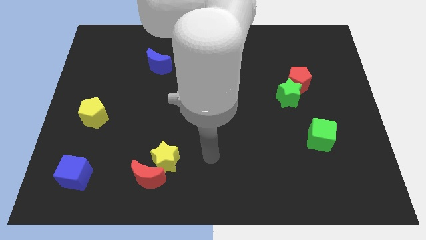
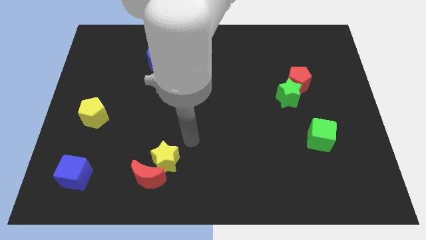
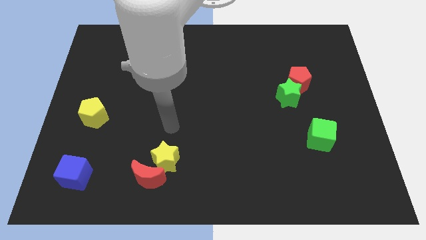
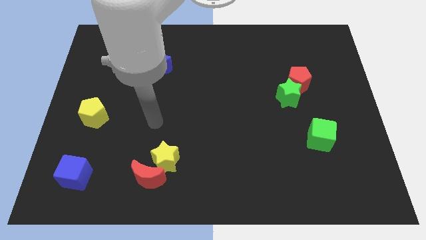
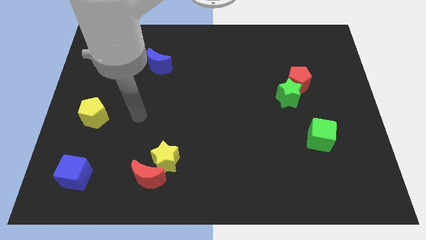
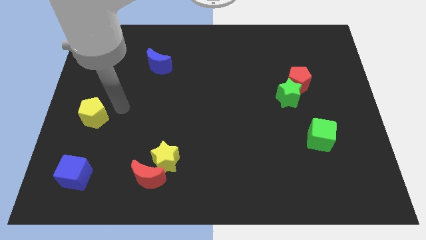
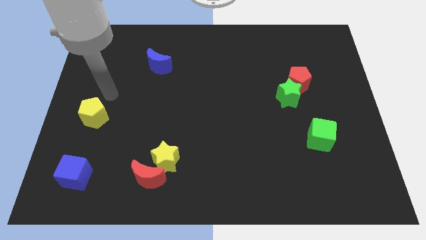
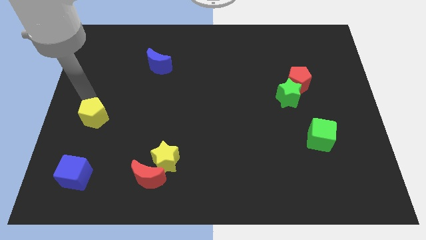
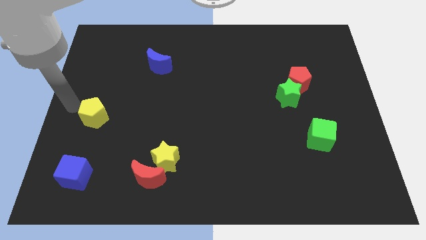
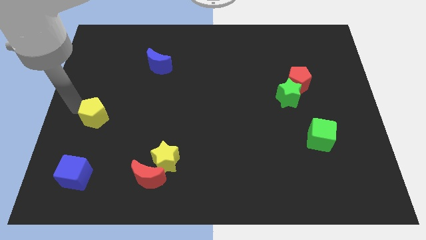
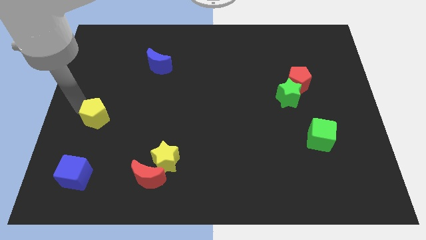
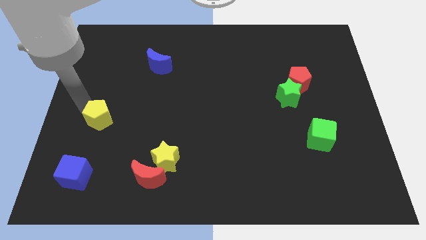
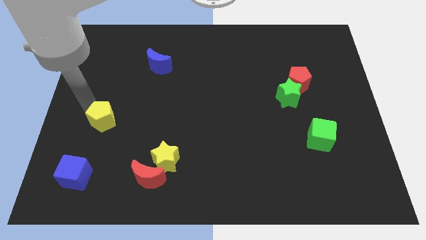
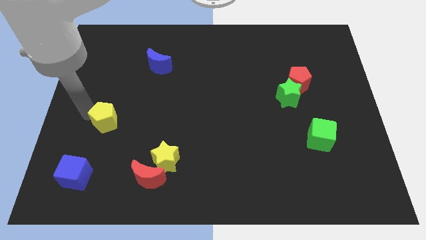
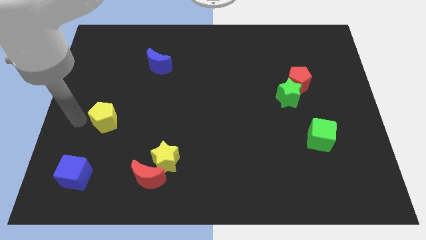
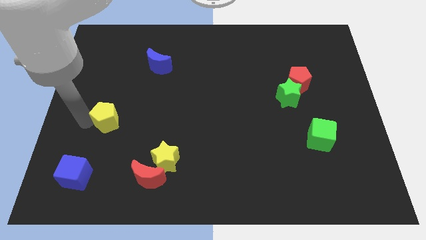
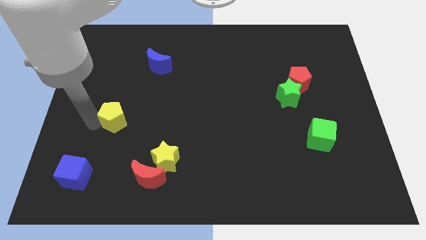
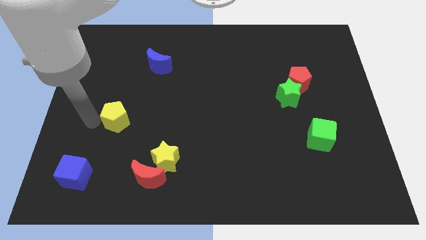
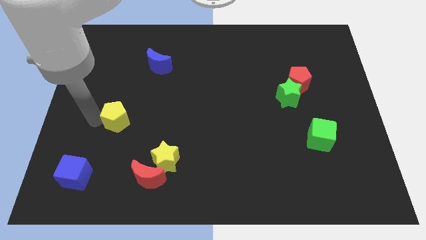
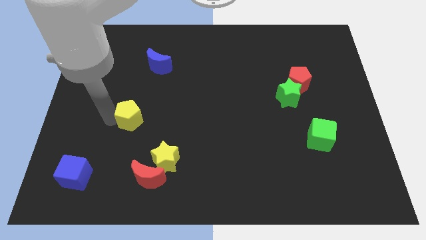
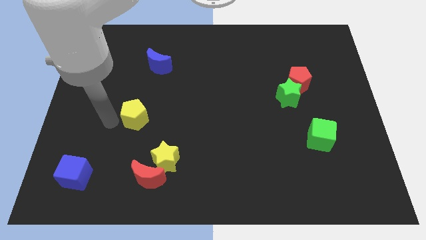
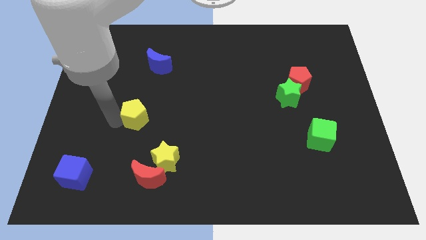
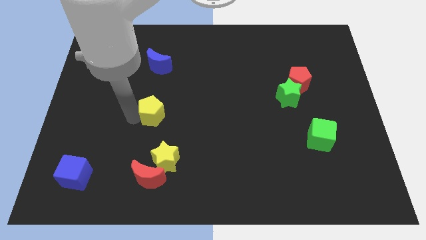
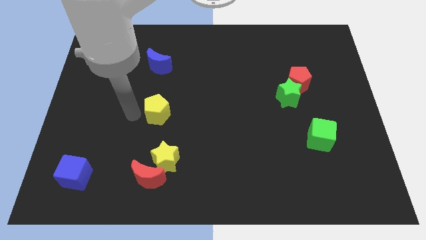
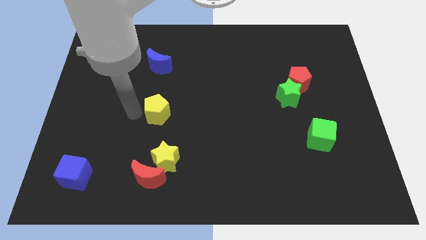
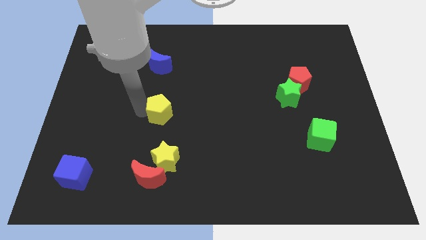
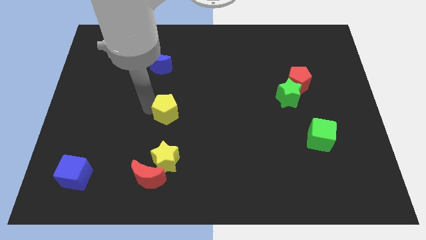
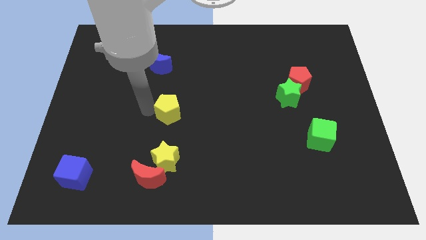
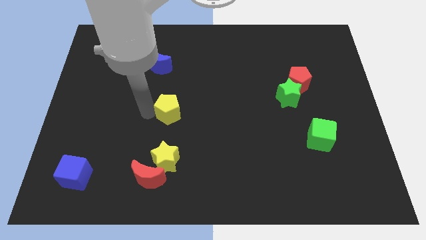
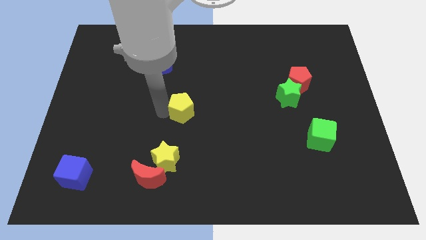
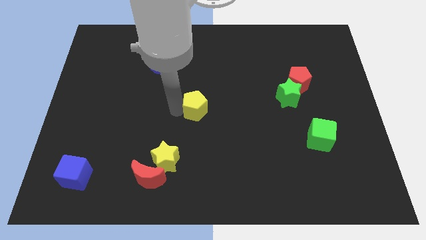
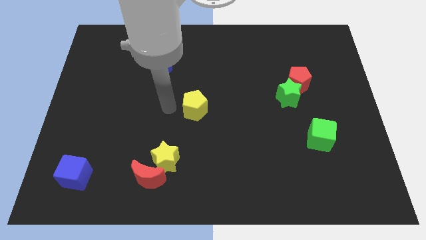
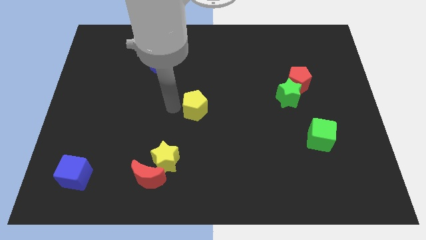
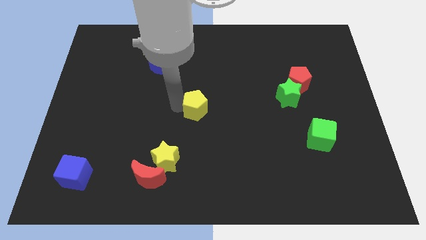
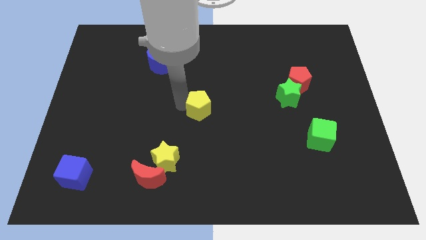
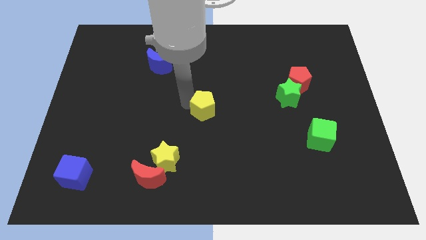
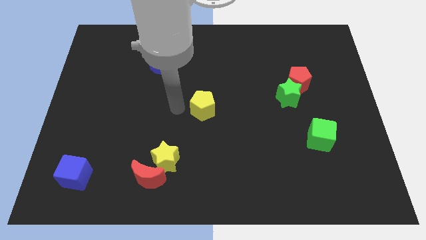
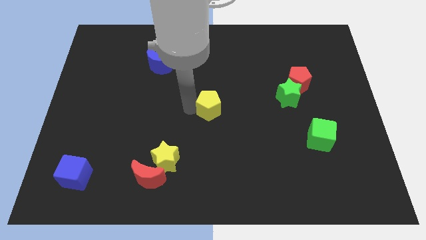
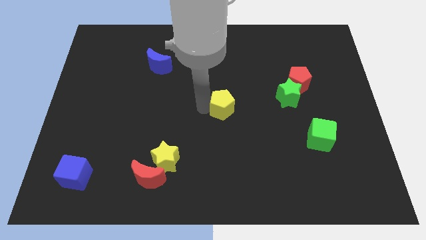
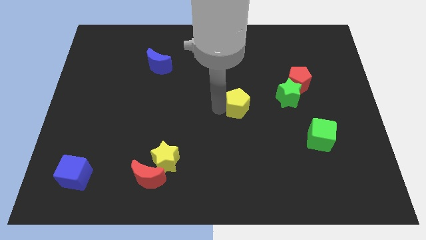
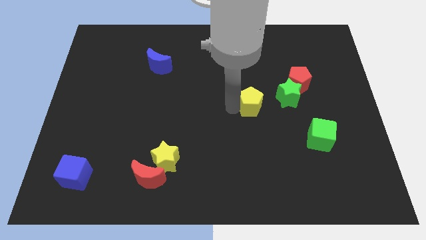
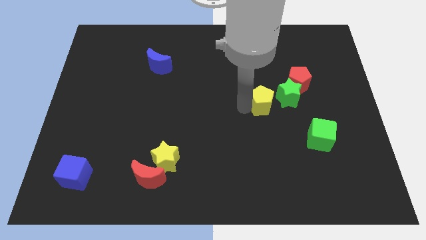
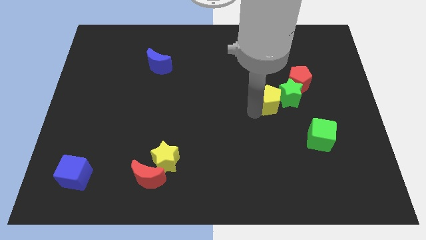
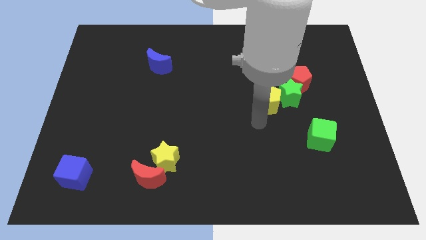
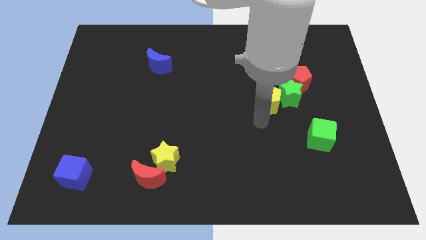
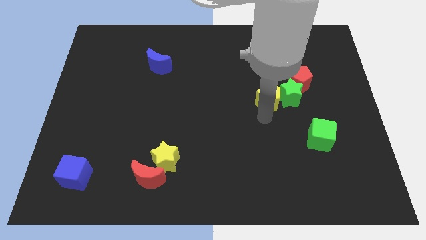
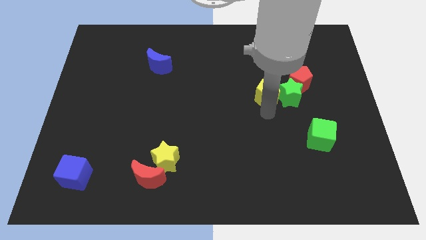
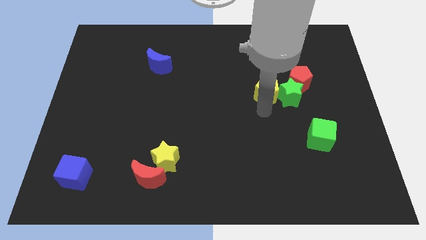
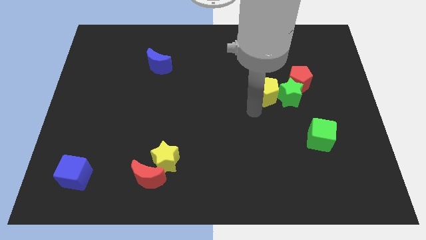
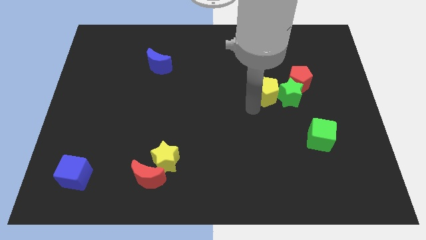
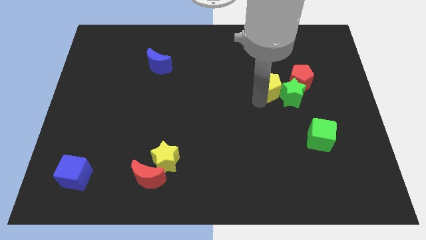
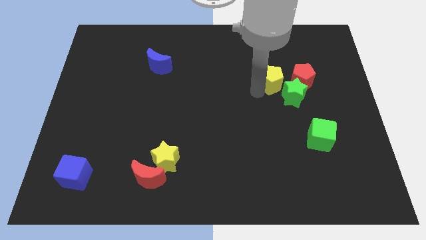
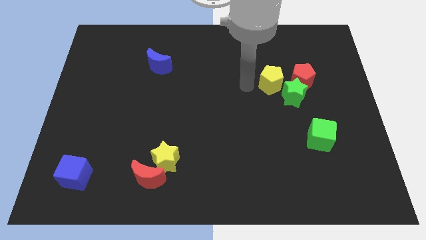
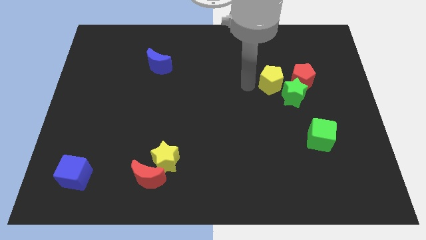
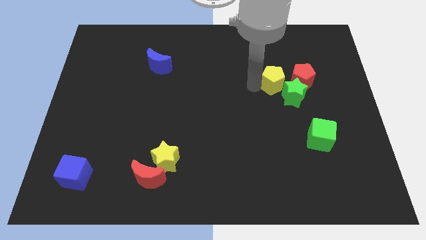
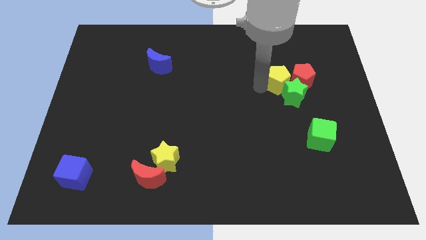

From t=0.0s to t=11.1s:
put the yellow pentagon towards the red pentagon

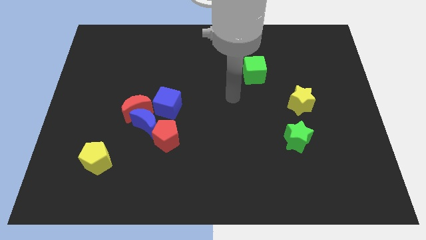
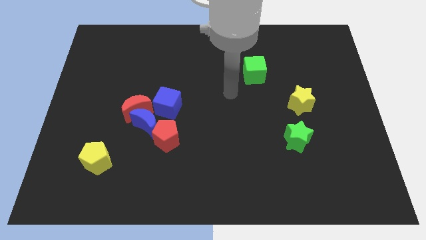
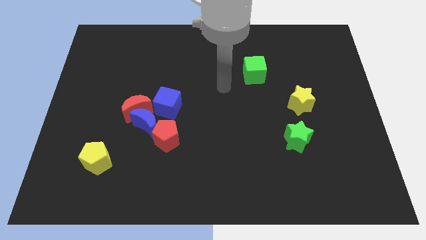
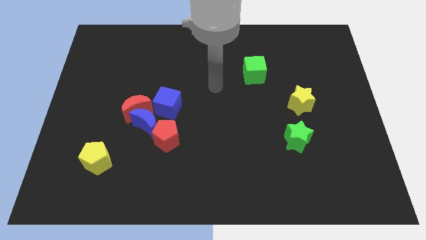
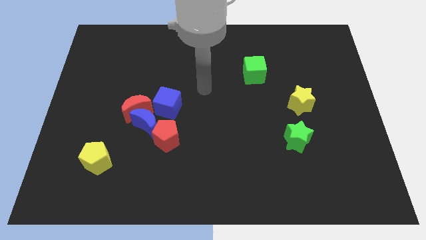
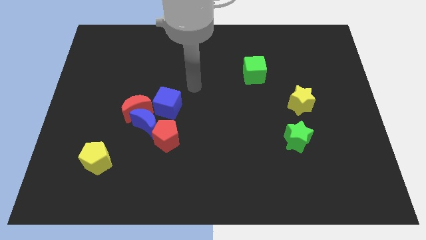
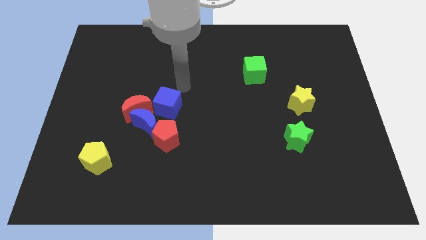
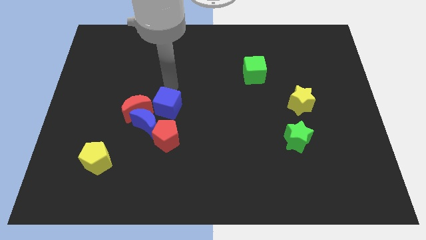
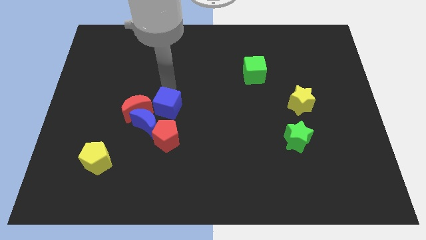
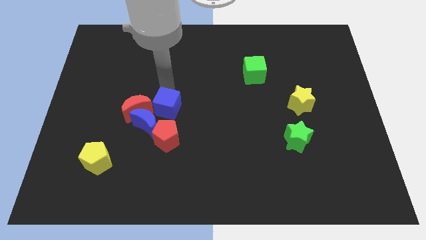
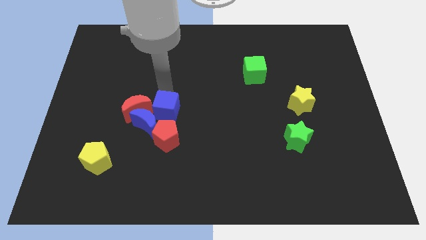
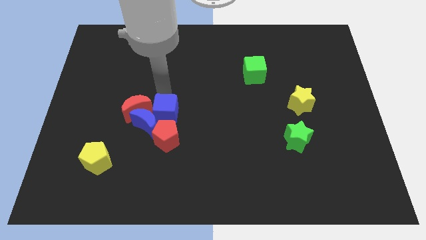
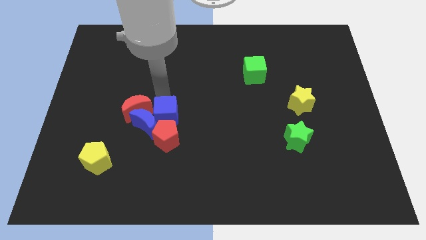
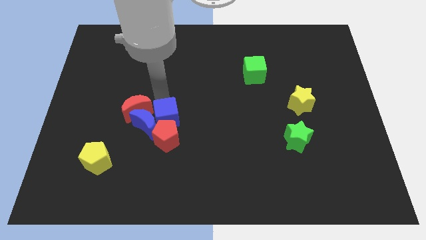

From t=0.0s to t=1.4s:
slide the blue cube close to the red pentagon
